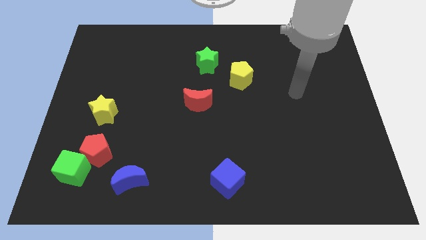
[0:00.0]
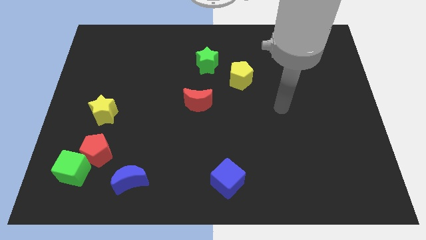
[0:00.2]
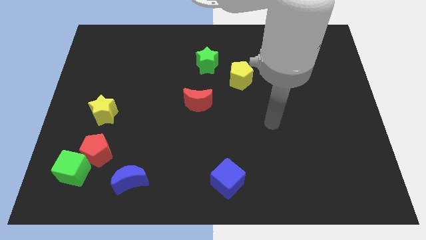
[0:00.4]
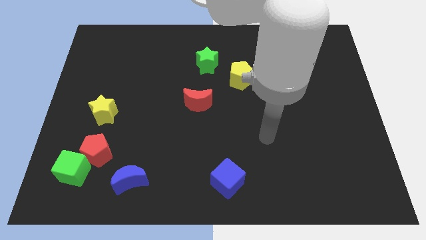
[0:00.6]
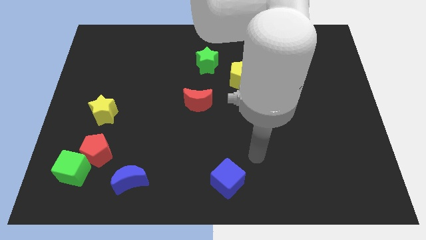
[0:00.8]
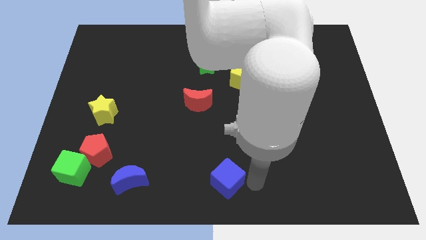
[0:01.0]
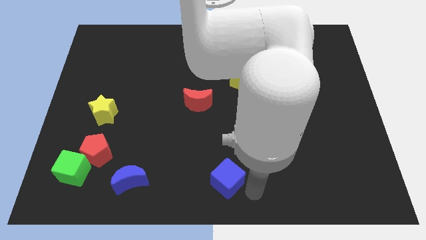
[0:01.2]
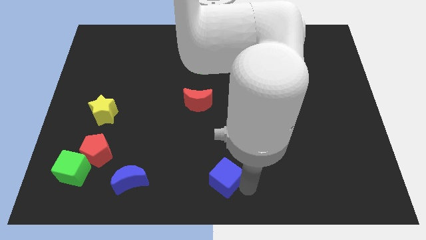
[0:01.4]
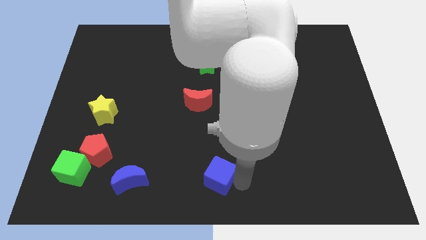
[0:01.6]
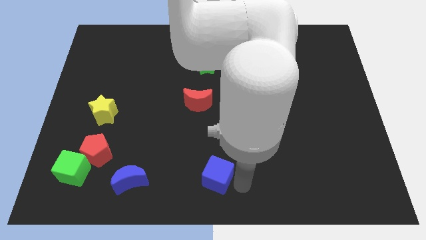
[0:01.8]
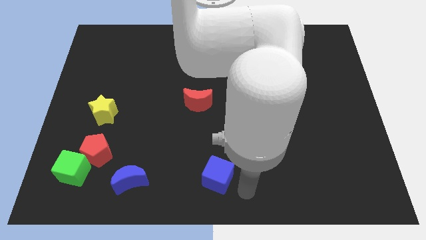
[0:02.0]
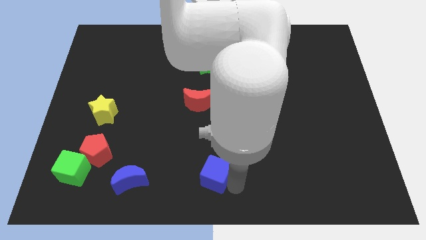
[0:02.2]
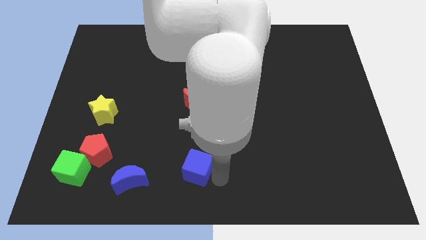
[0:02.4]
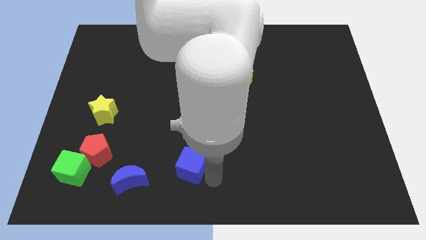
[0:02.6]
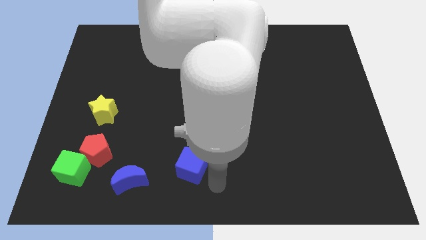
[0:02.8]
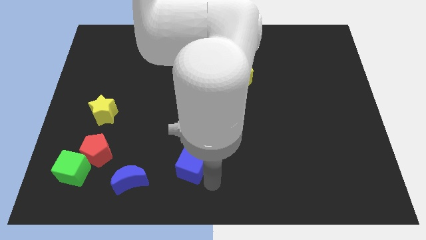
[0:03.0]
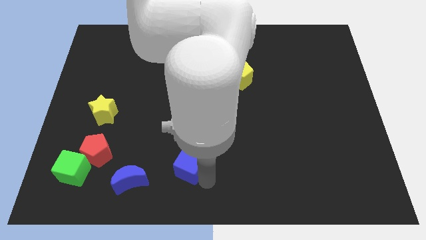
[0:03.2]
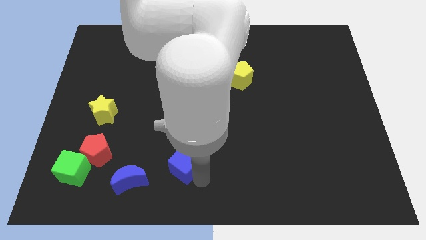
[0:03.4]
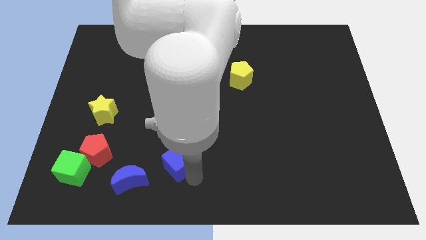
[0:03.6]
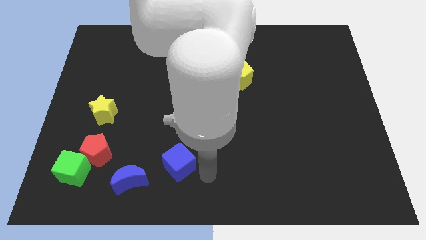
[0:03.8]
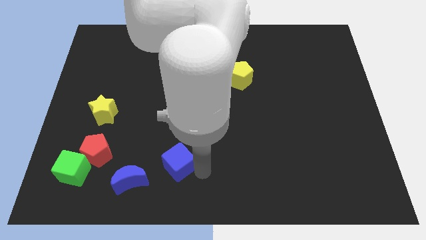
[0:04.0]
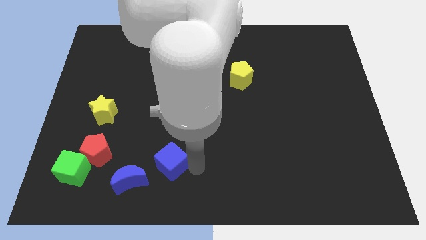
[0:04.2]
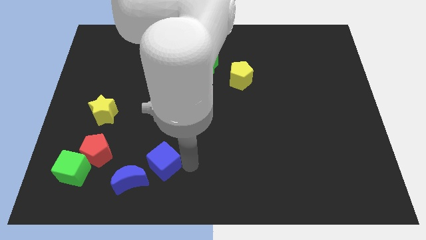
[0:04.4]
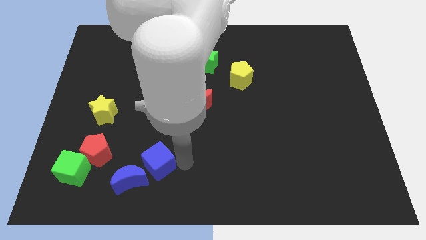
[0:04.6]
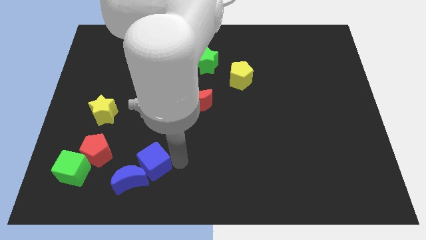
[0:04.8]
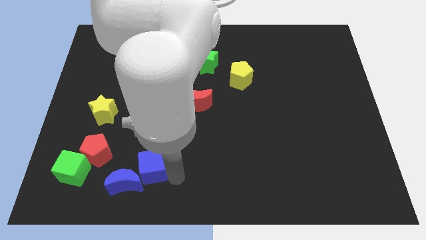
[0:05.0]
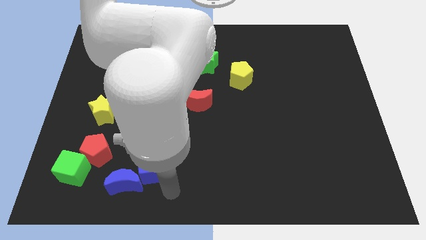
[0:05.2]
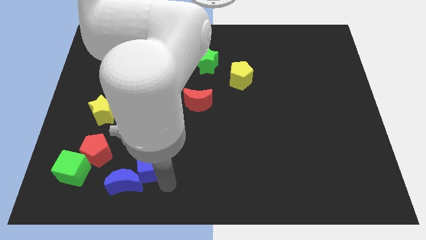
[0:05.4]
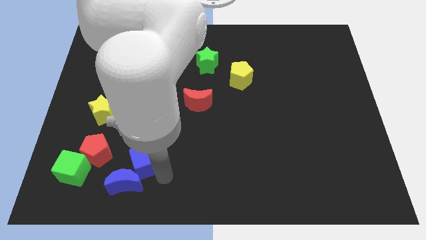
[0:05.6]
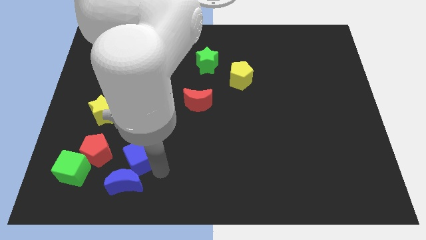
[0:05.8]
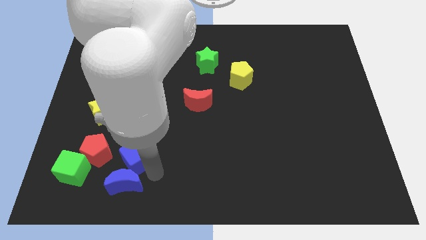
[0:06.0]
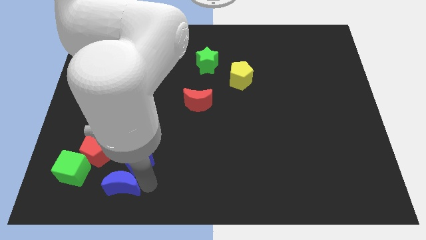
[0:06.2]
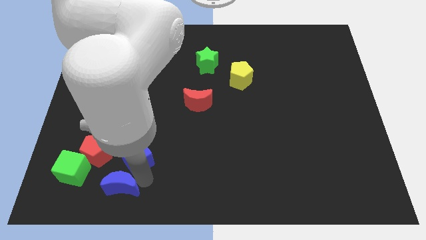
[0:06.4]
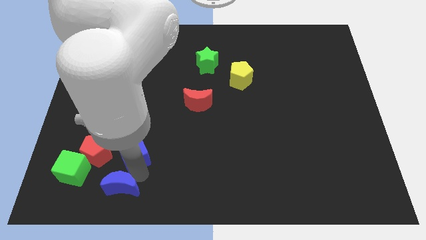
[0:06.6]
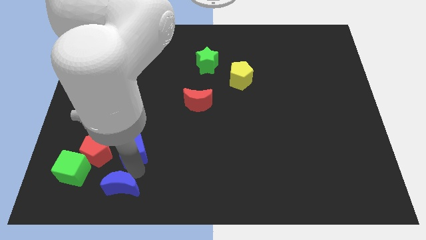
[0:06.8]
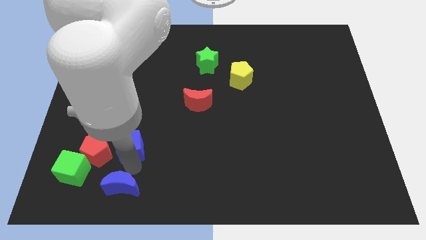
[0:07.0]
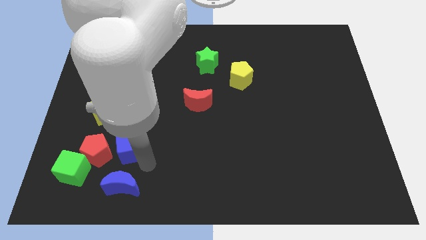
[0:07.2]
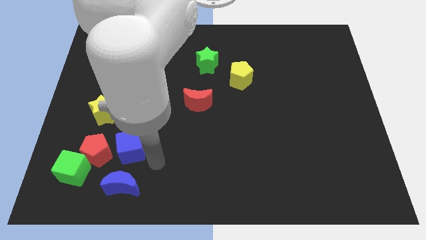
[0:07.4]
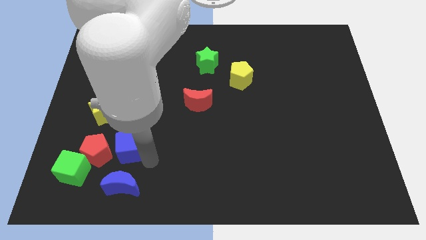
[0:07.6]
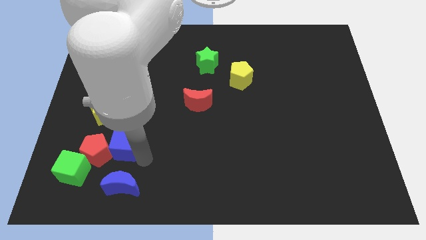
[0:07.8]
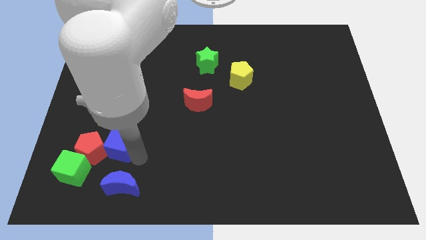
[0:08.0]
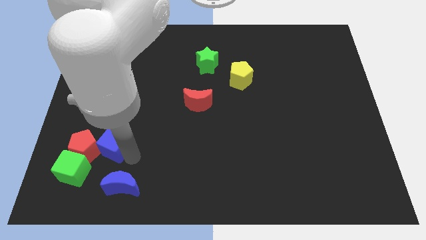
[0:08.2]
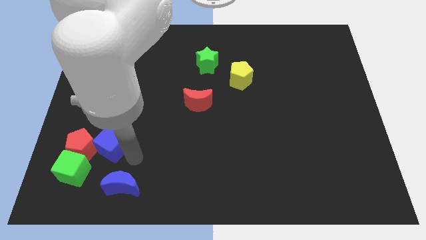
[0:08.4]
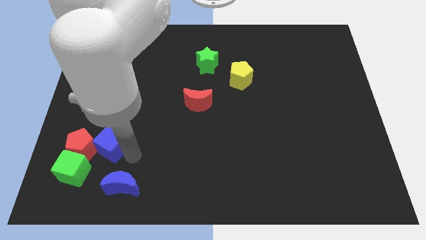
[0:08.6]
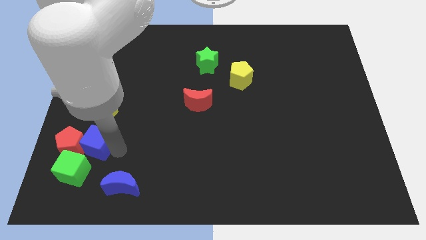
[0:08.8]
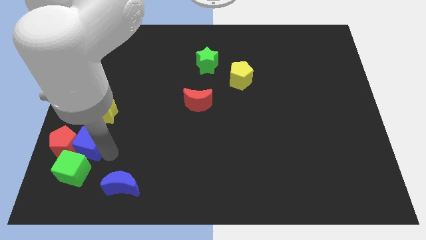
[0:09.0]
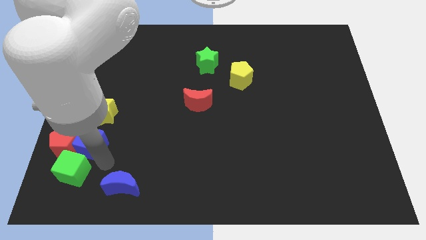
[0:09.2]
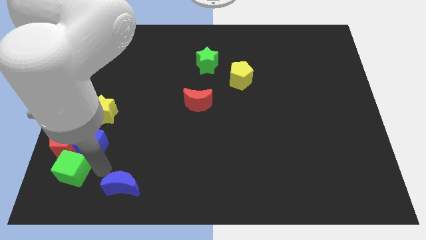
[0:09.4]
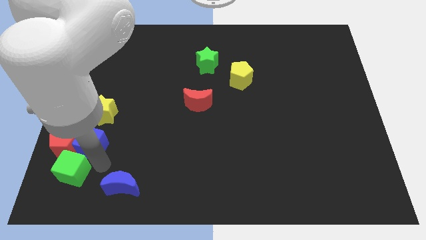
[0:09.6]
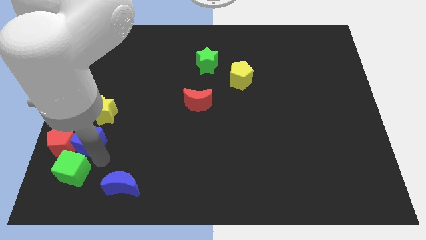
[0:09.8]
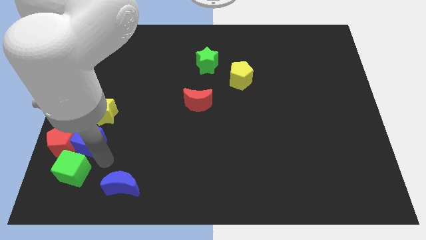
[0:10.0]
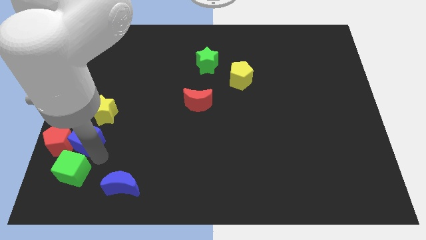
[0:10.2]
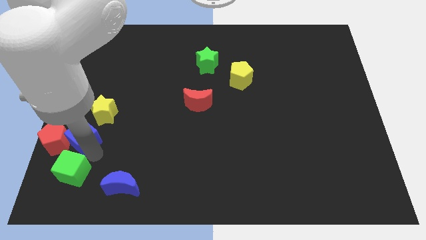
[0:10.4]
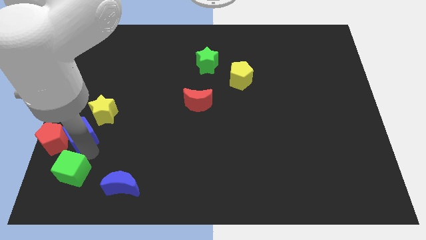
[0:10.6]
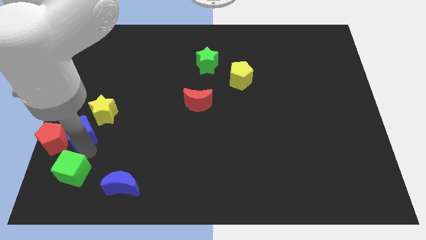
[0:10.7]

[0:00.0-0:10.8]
slide the blue cube to the left side
